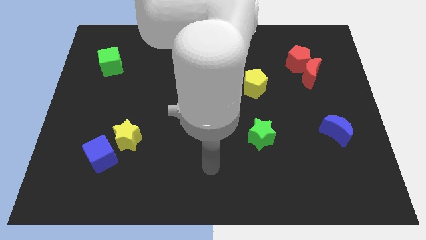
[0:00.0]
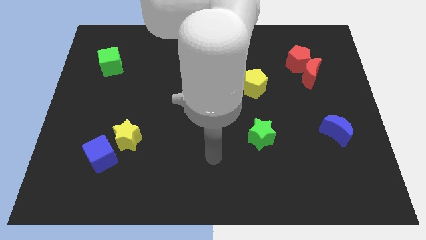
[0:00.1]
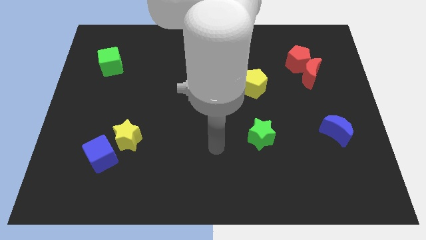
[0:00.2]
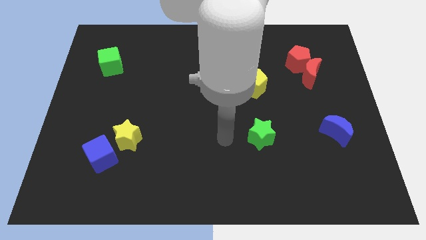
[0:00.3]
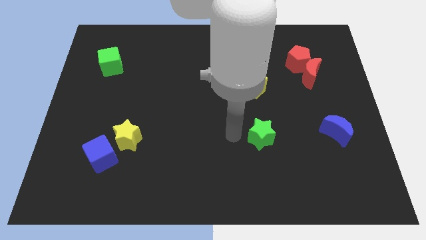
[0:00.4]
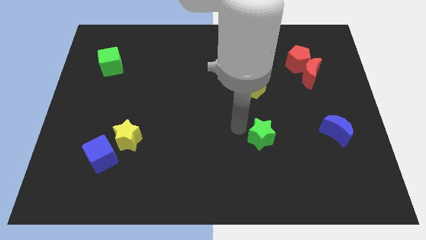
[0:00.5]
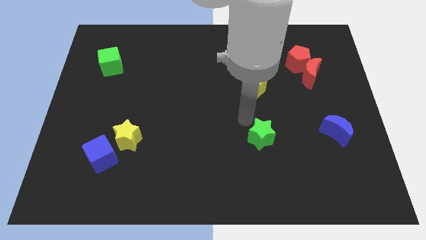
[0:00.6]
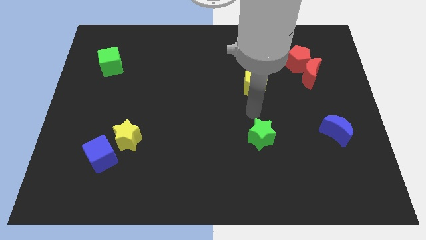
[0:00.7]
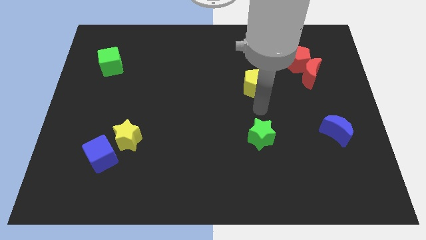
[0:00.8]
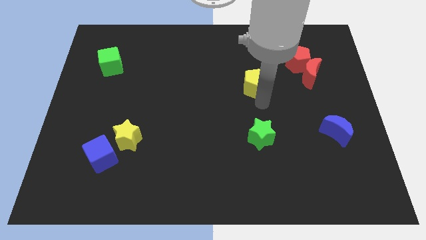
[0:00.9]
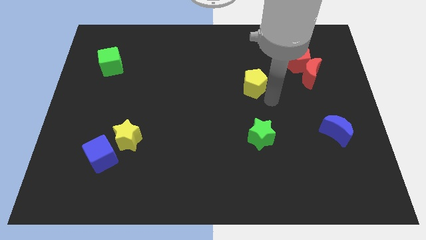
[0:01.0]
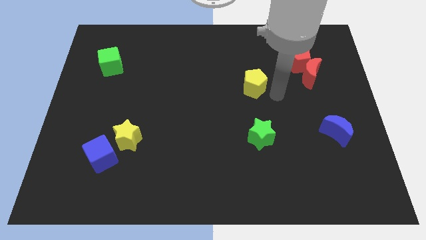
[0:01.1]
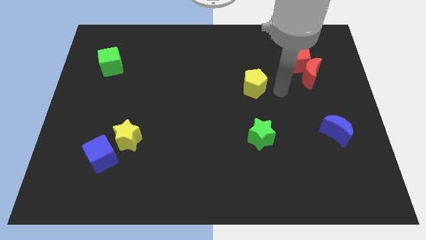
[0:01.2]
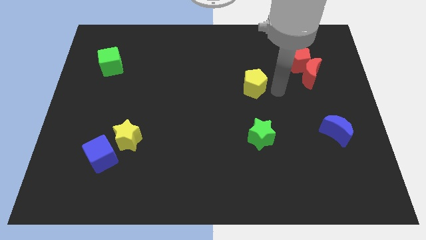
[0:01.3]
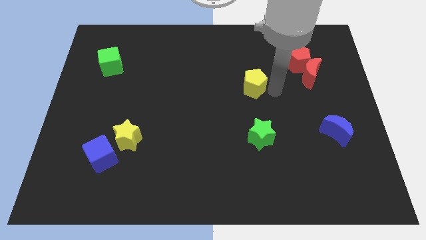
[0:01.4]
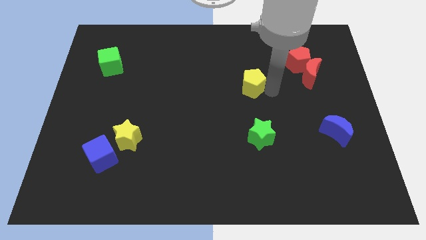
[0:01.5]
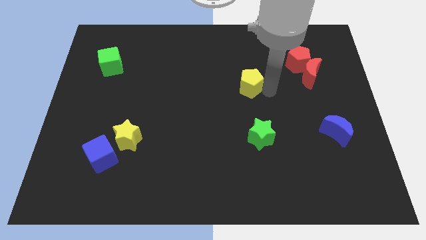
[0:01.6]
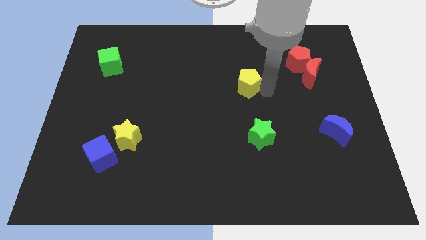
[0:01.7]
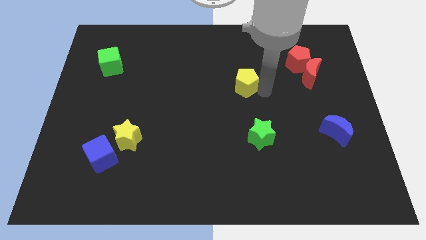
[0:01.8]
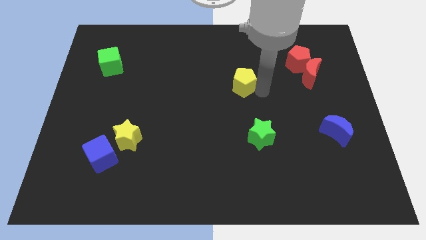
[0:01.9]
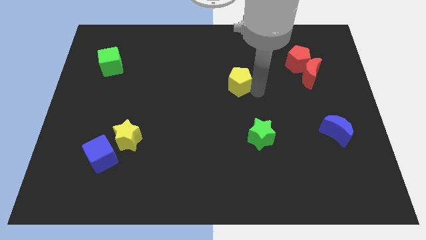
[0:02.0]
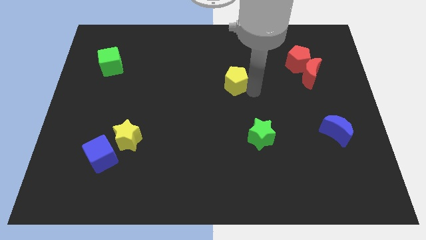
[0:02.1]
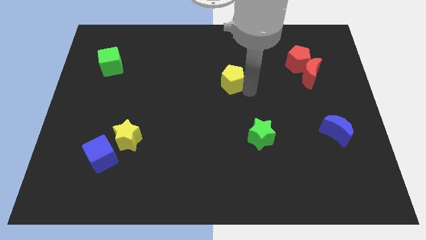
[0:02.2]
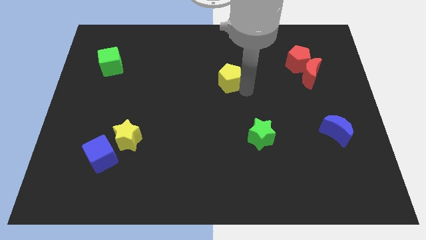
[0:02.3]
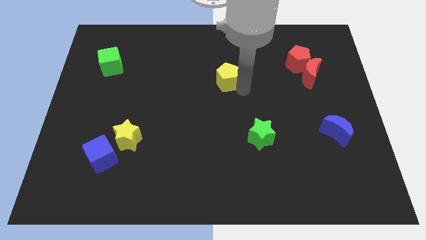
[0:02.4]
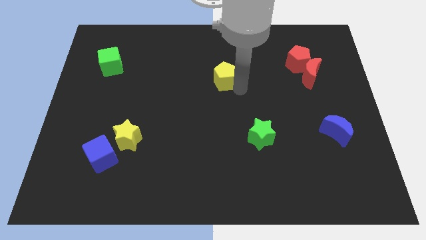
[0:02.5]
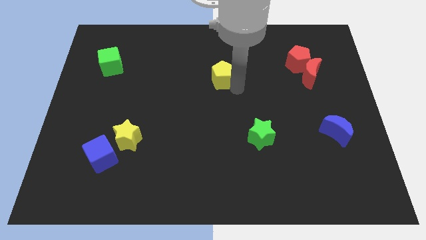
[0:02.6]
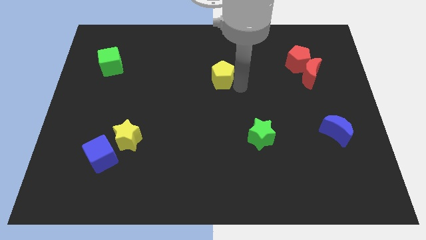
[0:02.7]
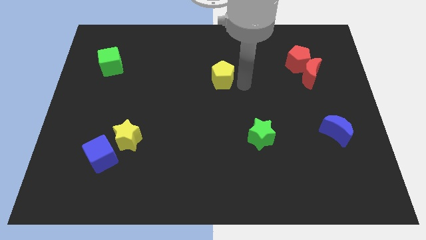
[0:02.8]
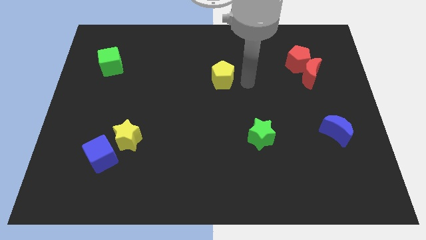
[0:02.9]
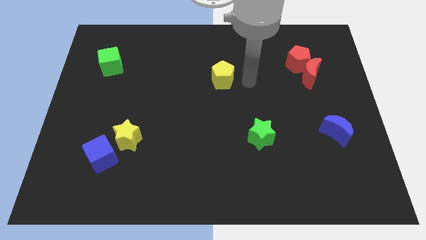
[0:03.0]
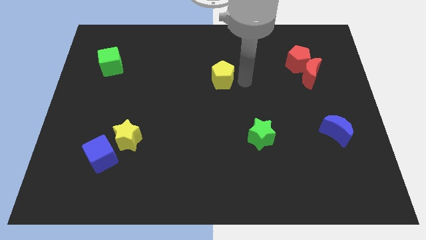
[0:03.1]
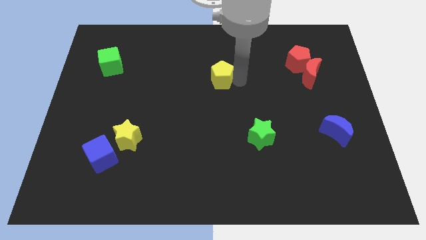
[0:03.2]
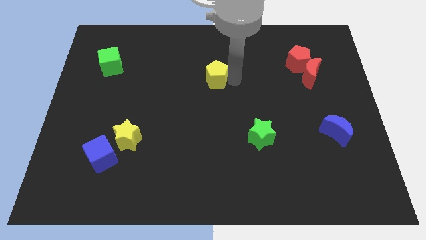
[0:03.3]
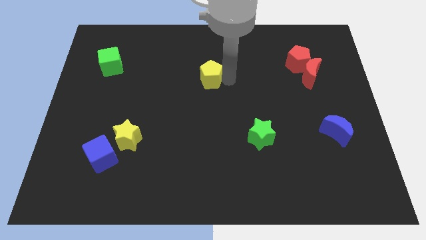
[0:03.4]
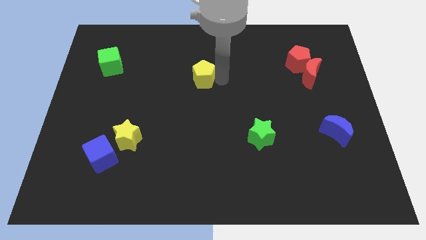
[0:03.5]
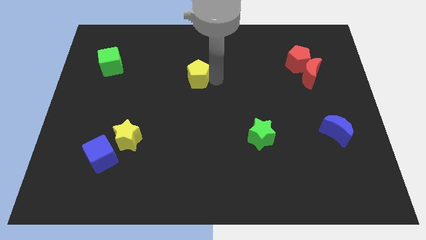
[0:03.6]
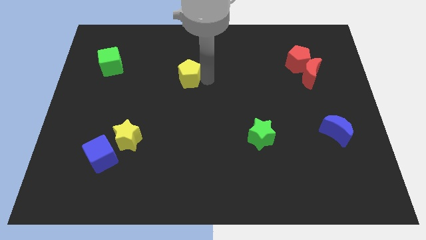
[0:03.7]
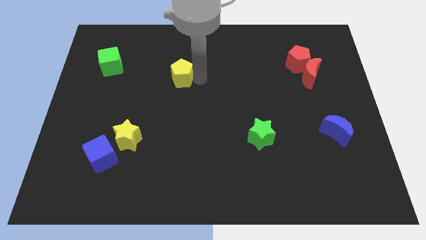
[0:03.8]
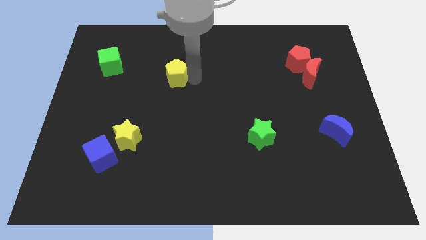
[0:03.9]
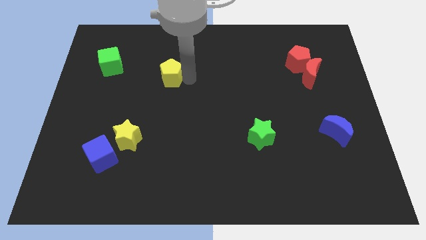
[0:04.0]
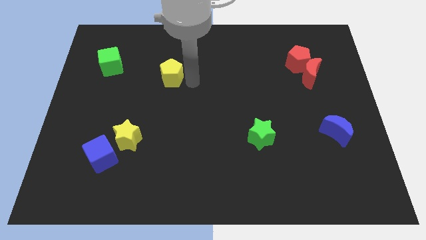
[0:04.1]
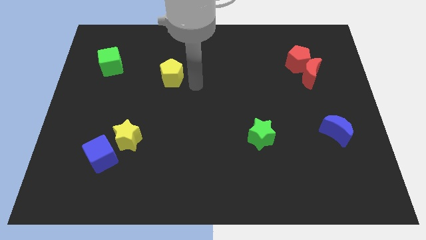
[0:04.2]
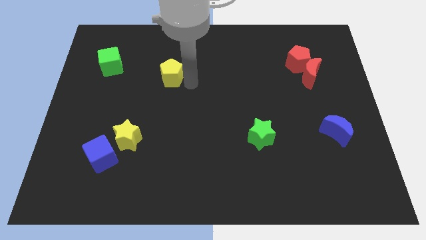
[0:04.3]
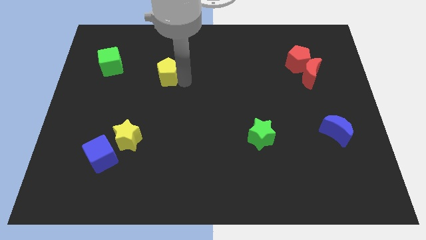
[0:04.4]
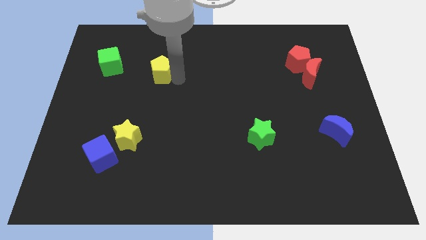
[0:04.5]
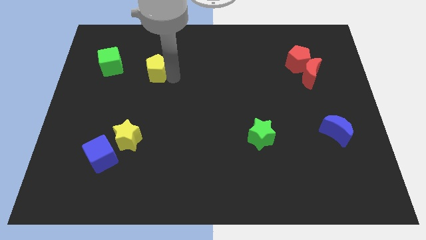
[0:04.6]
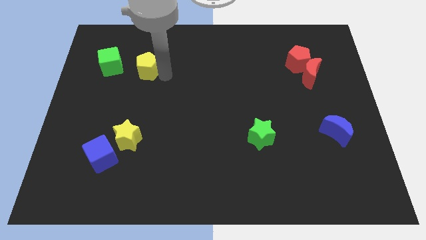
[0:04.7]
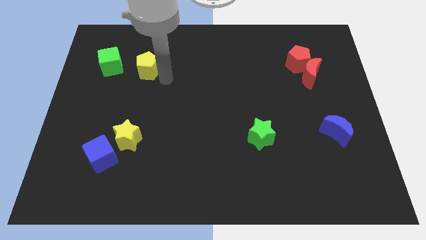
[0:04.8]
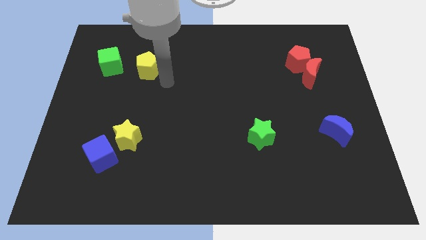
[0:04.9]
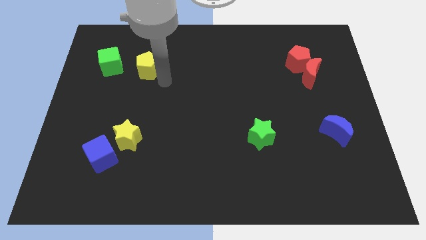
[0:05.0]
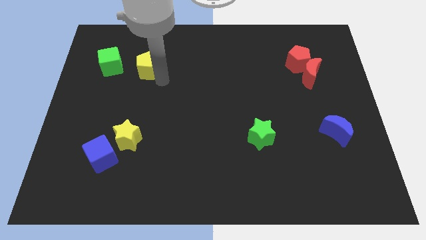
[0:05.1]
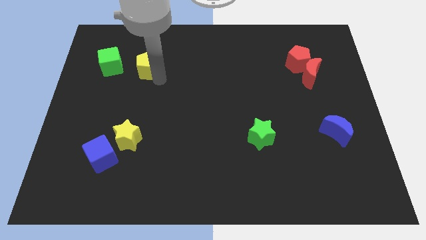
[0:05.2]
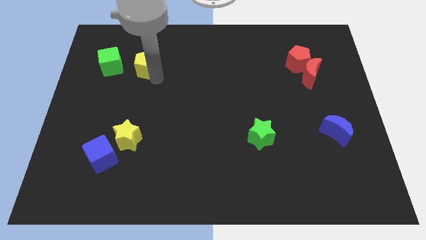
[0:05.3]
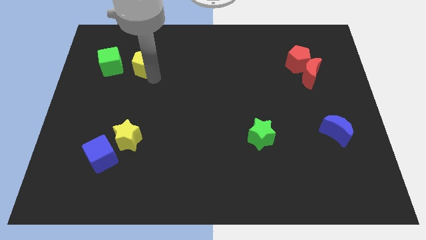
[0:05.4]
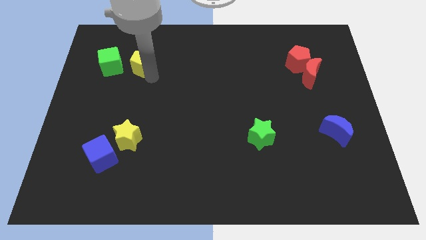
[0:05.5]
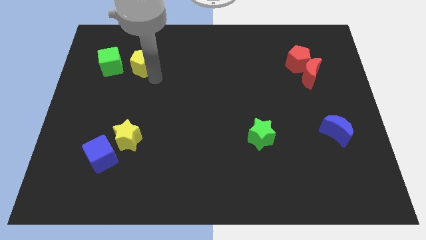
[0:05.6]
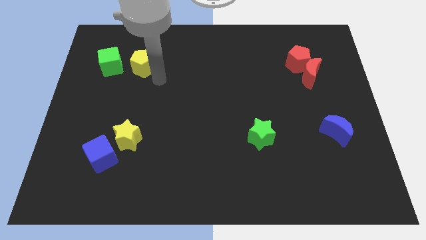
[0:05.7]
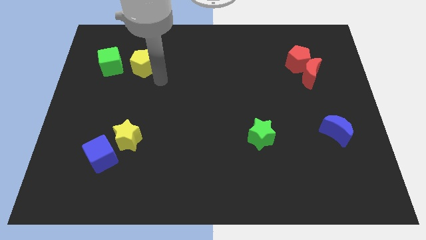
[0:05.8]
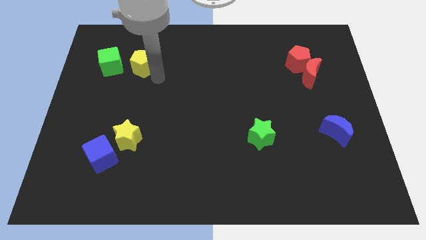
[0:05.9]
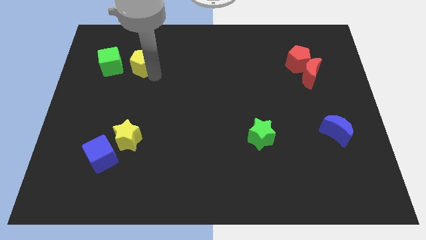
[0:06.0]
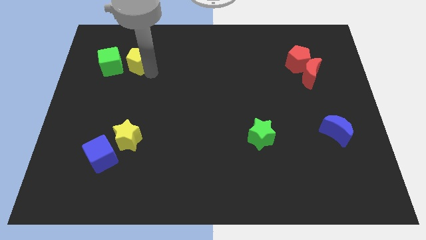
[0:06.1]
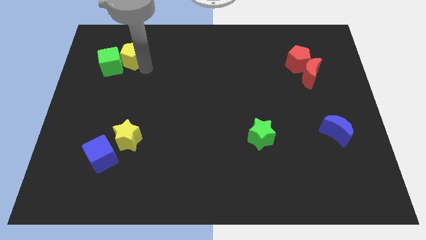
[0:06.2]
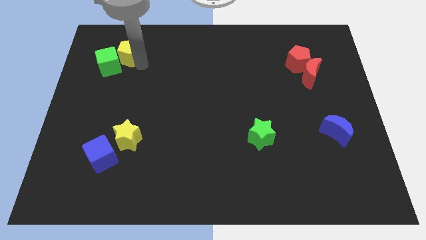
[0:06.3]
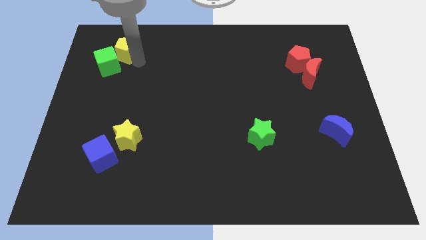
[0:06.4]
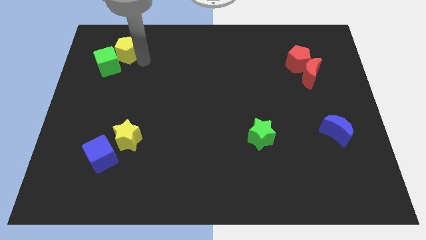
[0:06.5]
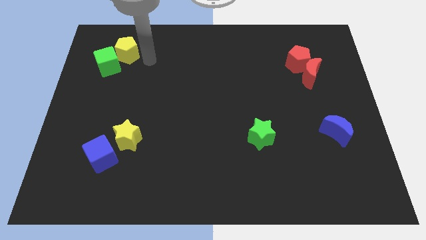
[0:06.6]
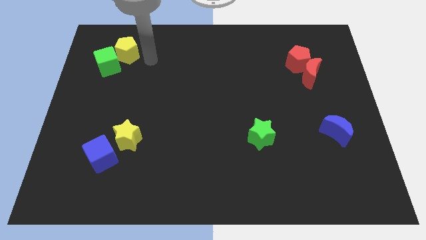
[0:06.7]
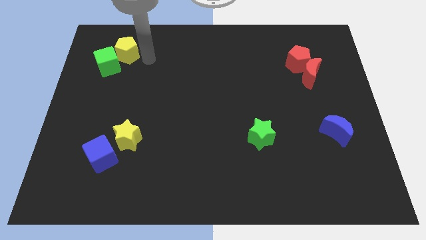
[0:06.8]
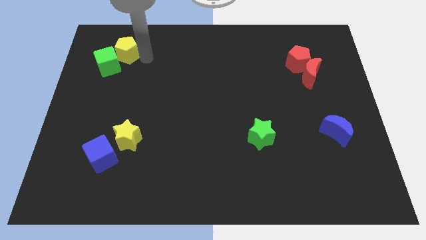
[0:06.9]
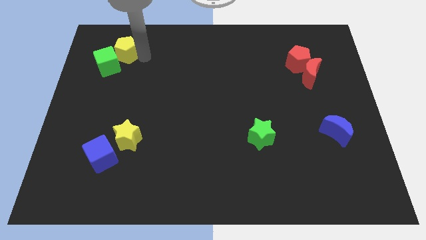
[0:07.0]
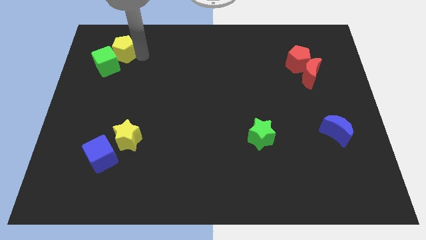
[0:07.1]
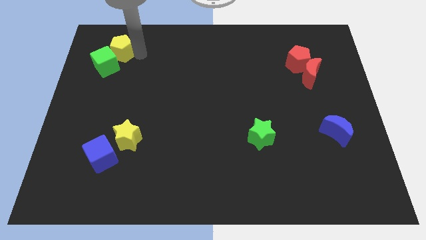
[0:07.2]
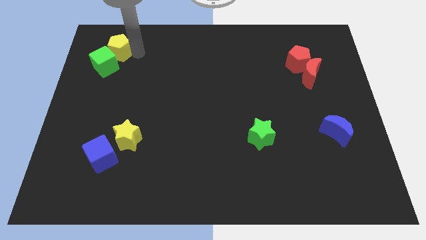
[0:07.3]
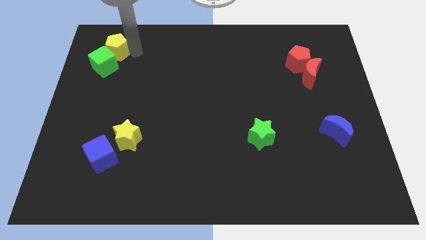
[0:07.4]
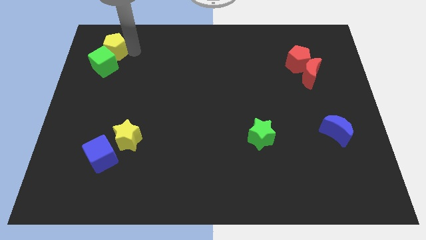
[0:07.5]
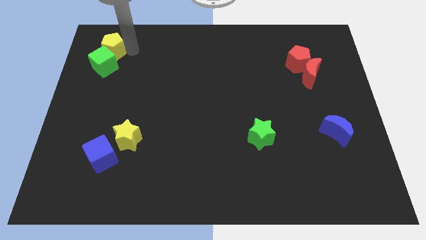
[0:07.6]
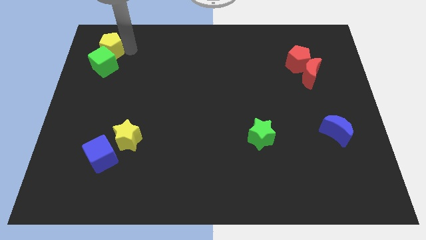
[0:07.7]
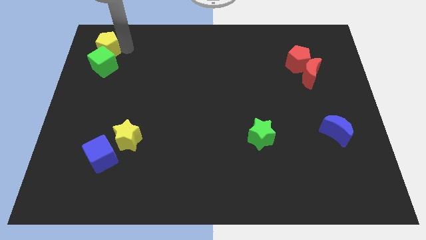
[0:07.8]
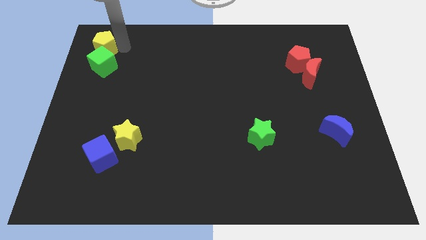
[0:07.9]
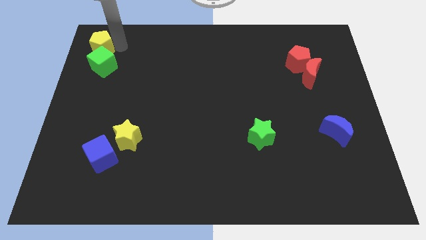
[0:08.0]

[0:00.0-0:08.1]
push the yellow pentagon to the upper left corner
